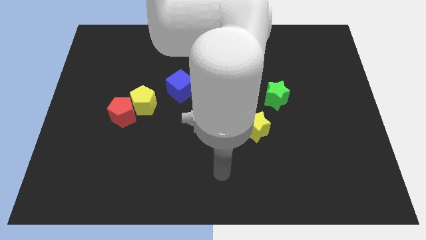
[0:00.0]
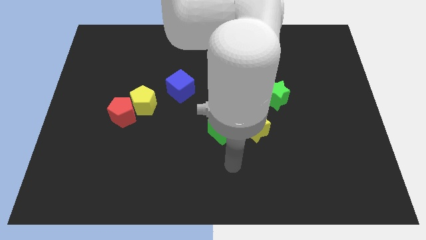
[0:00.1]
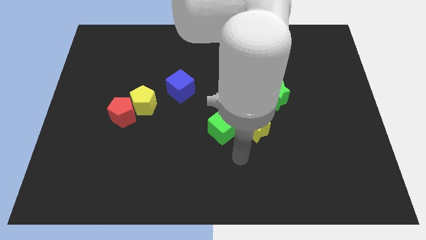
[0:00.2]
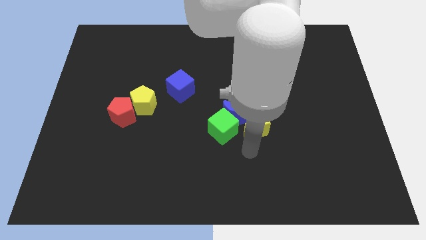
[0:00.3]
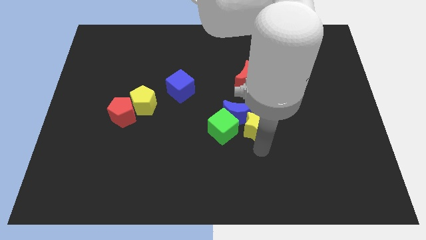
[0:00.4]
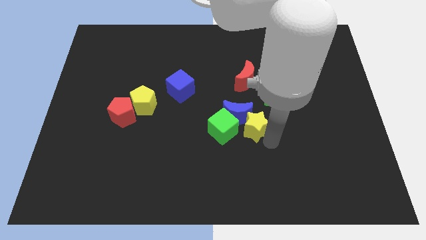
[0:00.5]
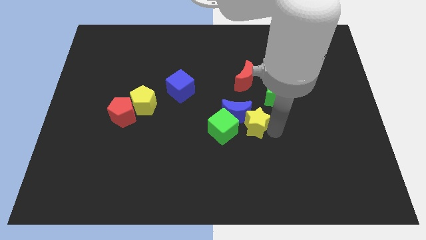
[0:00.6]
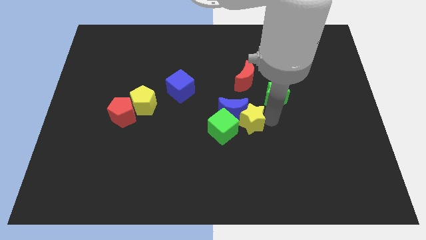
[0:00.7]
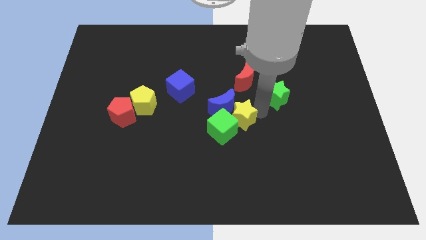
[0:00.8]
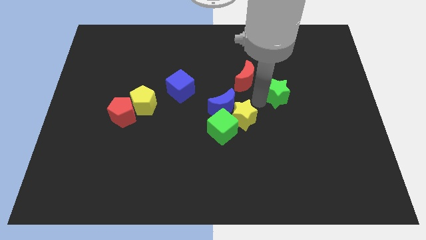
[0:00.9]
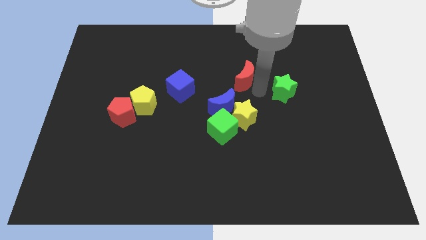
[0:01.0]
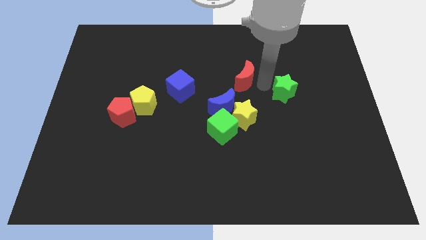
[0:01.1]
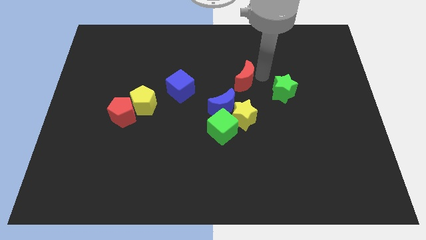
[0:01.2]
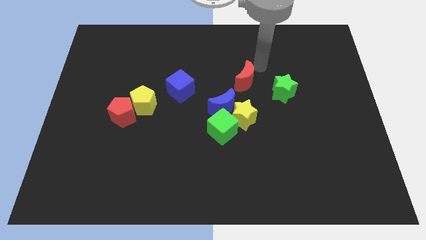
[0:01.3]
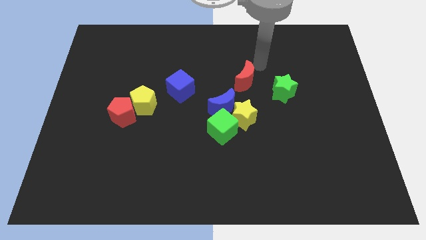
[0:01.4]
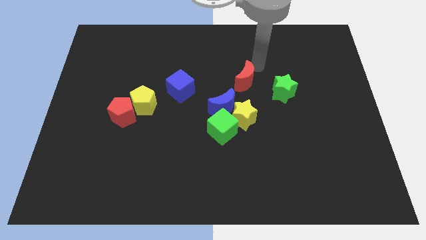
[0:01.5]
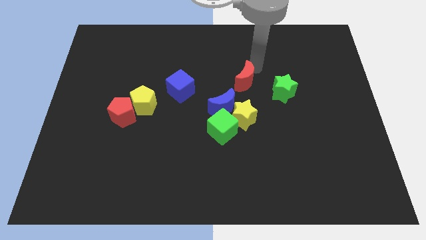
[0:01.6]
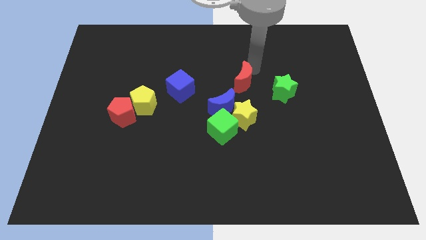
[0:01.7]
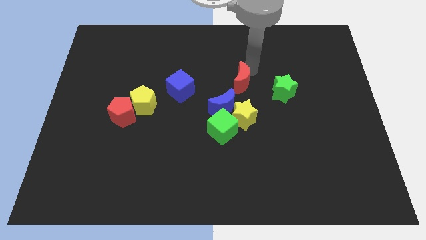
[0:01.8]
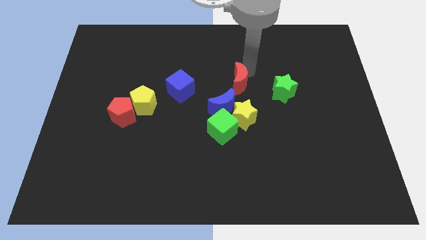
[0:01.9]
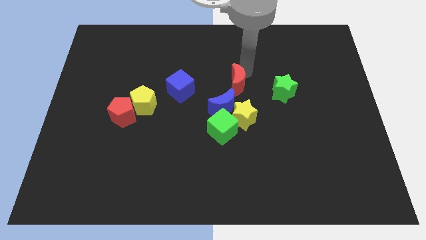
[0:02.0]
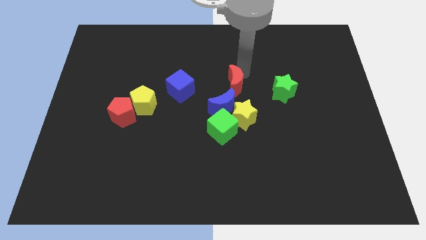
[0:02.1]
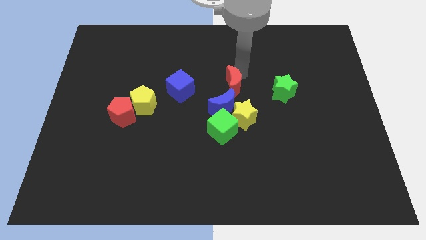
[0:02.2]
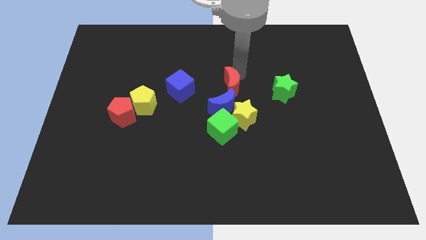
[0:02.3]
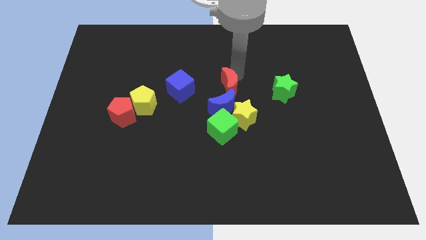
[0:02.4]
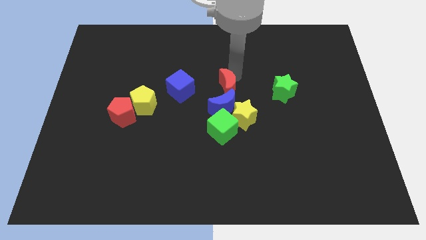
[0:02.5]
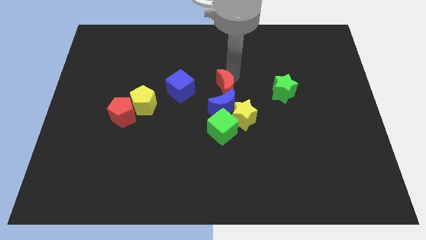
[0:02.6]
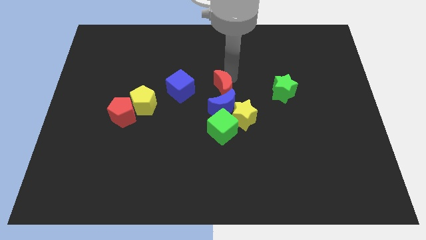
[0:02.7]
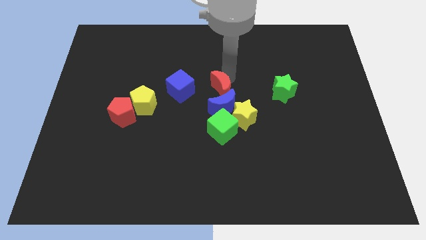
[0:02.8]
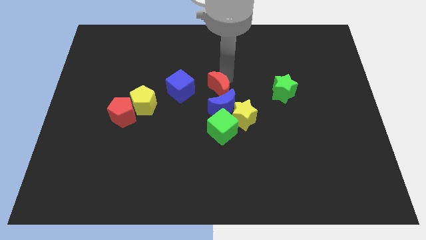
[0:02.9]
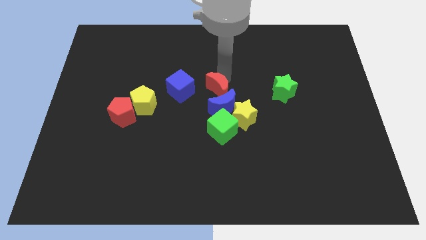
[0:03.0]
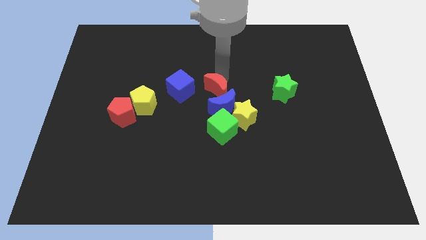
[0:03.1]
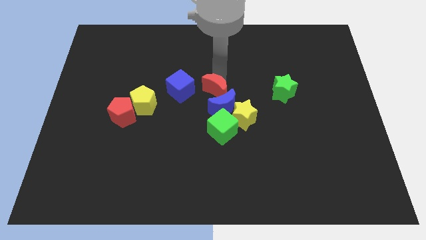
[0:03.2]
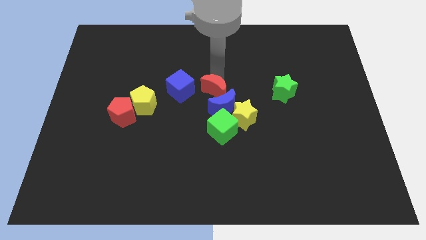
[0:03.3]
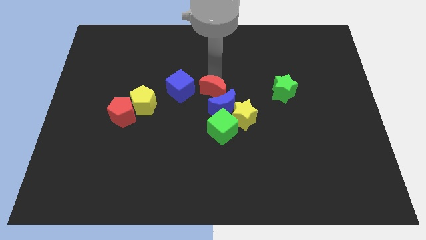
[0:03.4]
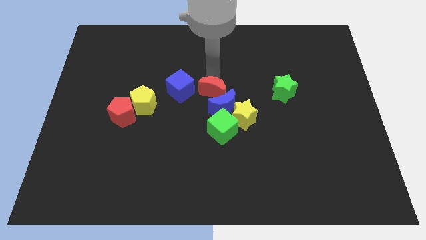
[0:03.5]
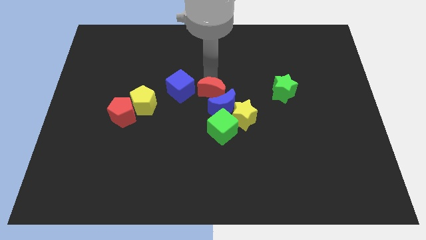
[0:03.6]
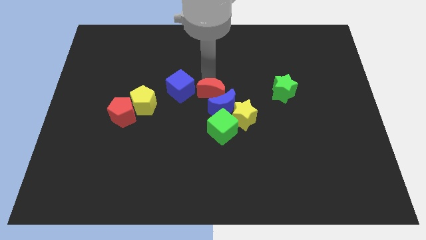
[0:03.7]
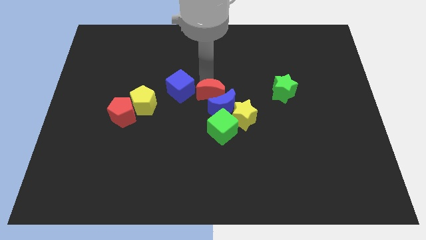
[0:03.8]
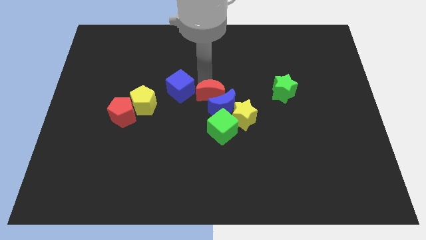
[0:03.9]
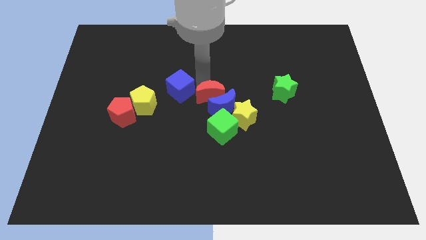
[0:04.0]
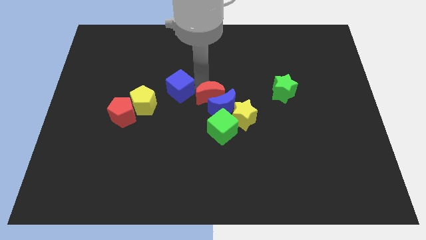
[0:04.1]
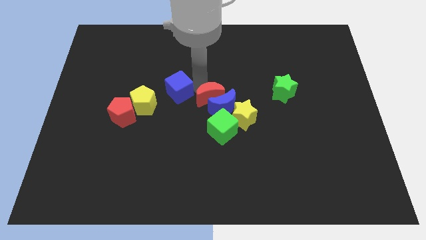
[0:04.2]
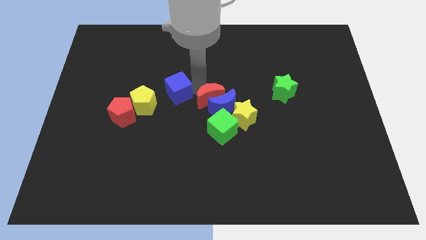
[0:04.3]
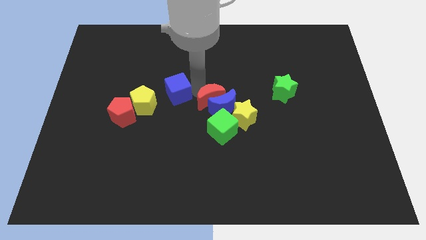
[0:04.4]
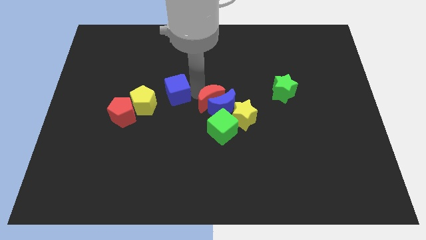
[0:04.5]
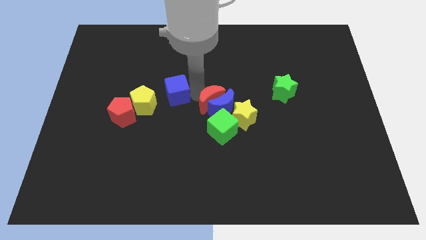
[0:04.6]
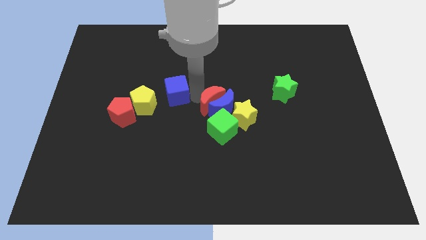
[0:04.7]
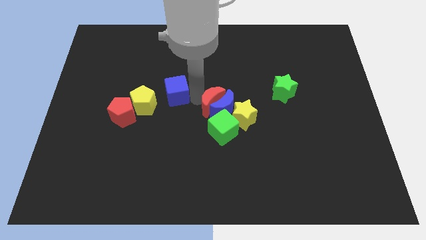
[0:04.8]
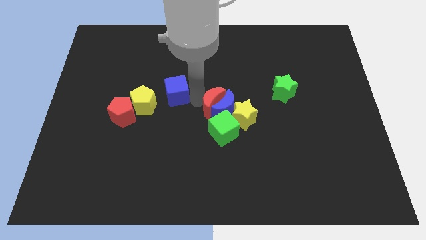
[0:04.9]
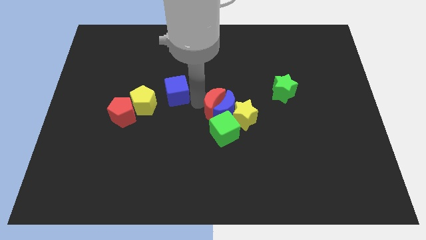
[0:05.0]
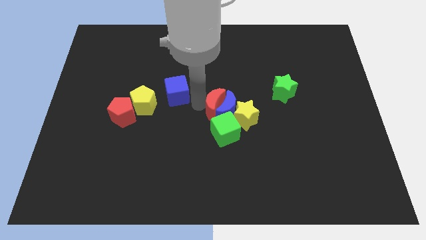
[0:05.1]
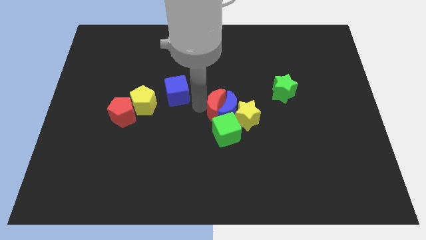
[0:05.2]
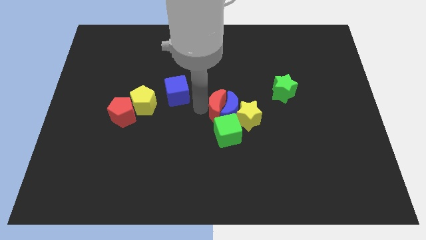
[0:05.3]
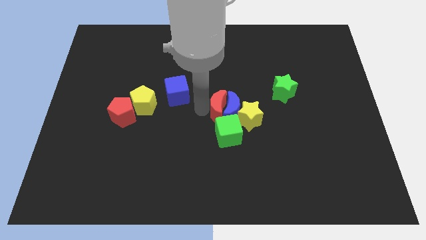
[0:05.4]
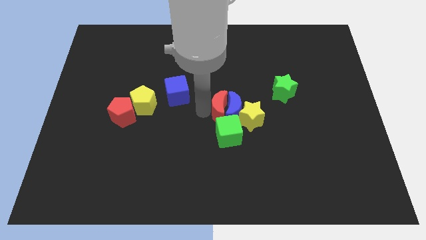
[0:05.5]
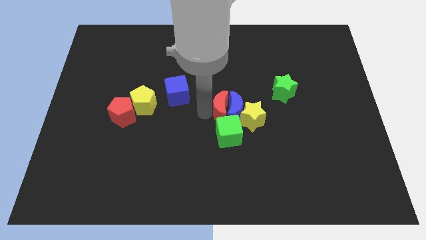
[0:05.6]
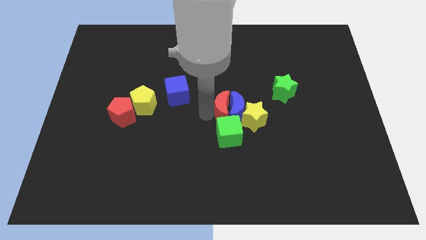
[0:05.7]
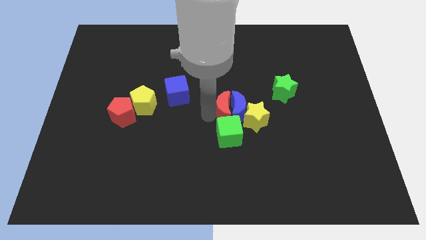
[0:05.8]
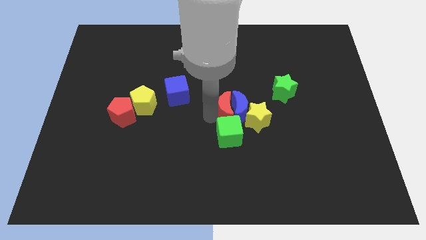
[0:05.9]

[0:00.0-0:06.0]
move the red moon towards the green cube

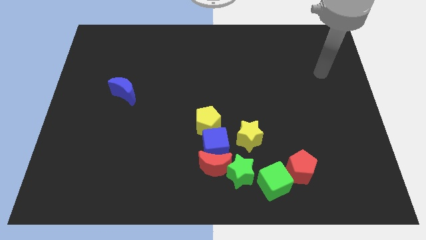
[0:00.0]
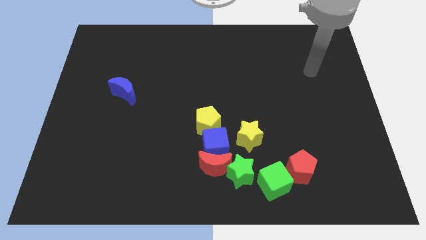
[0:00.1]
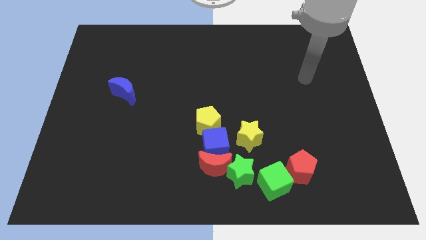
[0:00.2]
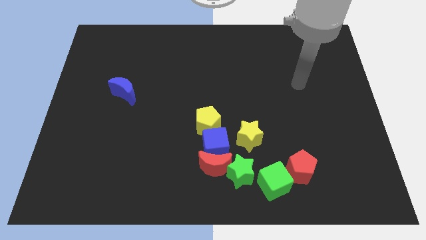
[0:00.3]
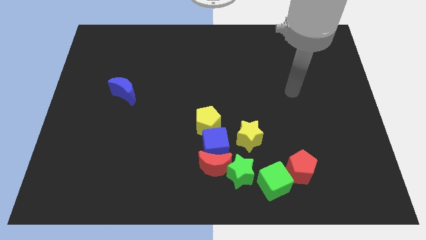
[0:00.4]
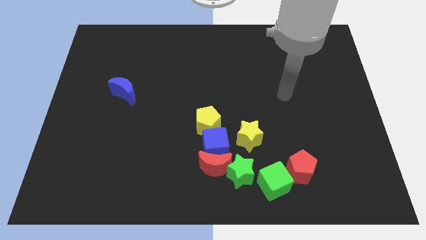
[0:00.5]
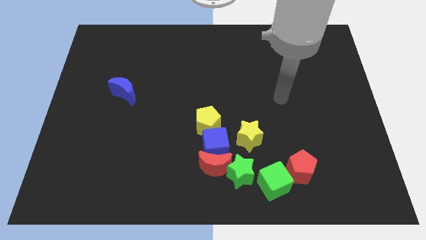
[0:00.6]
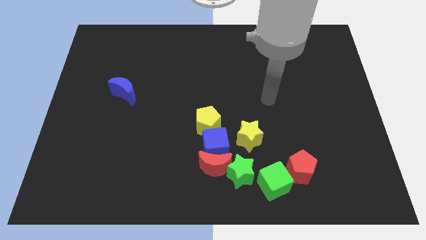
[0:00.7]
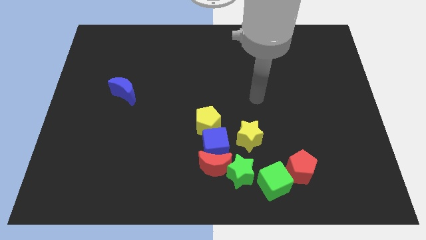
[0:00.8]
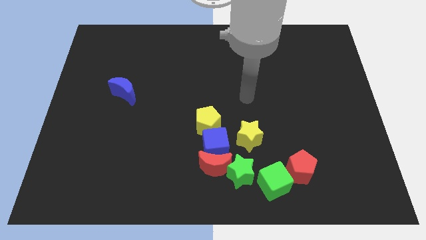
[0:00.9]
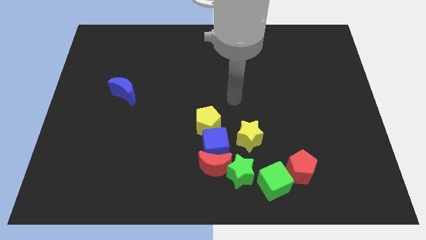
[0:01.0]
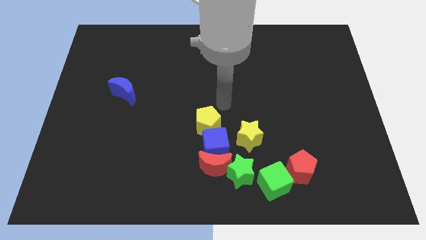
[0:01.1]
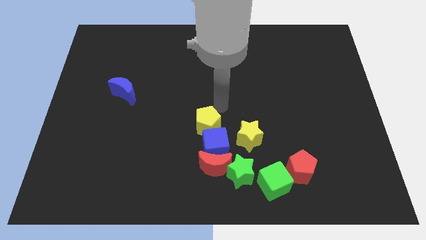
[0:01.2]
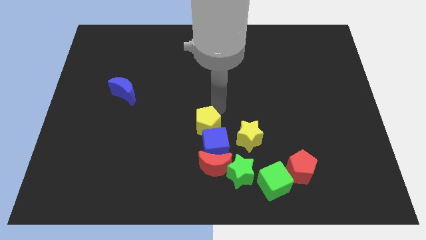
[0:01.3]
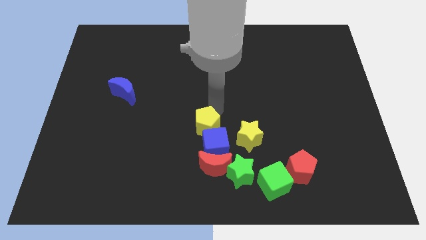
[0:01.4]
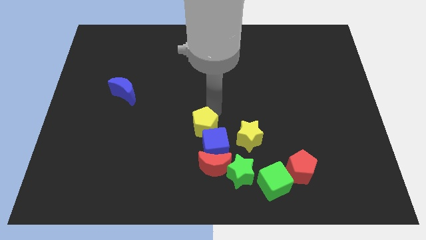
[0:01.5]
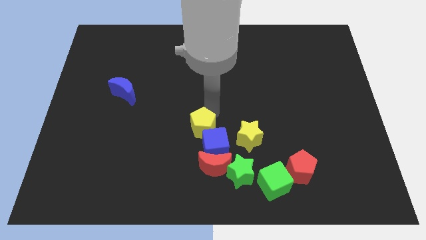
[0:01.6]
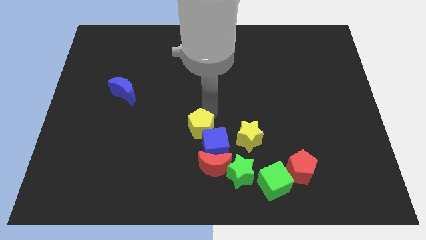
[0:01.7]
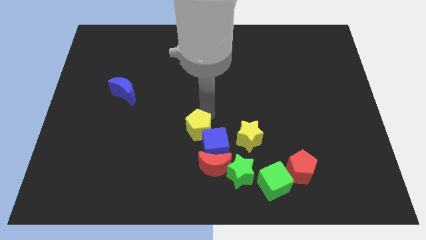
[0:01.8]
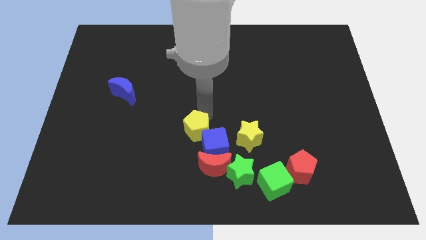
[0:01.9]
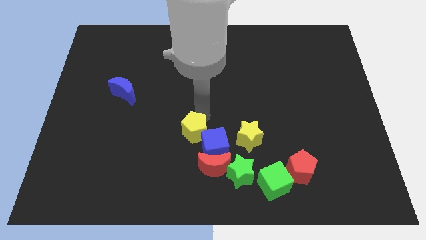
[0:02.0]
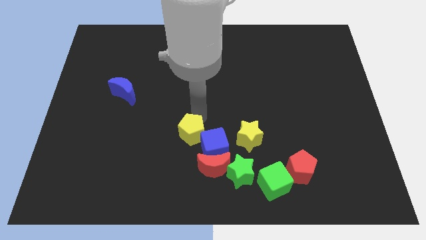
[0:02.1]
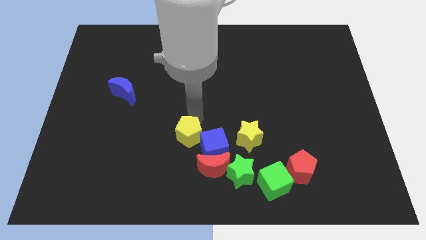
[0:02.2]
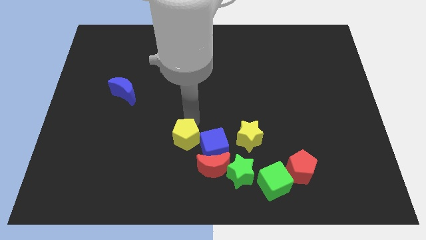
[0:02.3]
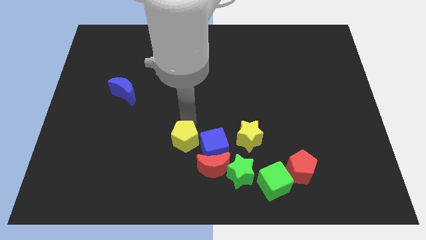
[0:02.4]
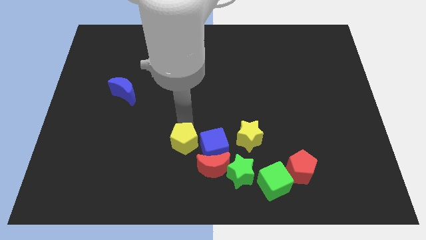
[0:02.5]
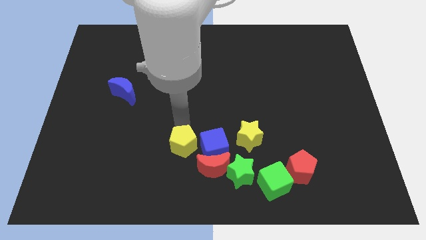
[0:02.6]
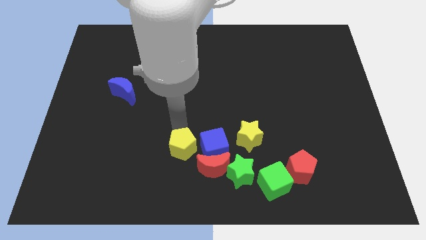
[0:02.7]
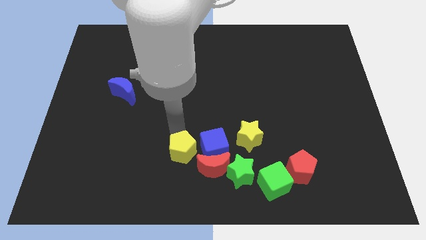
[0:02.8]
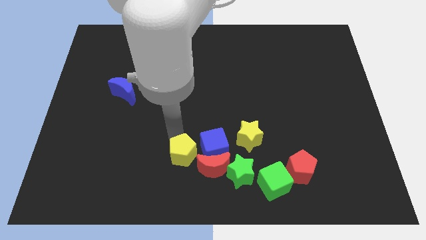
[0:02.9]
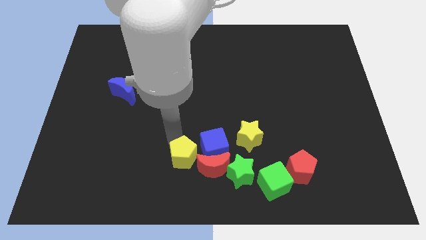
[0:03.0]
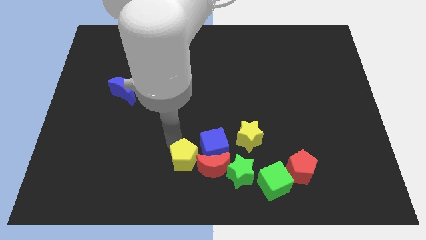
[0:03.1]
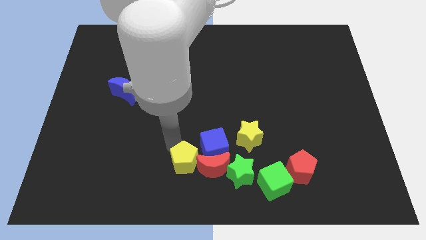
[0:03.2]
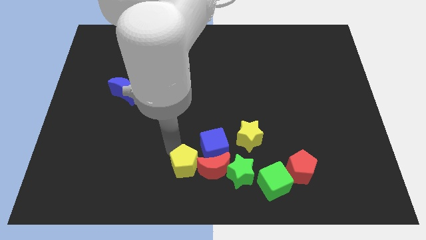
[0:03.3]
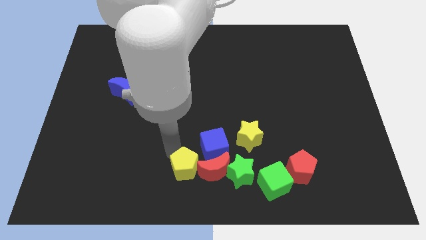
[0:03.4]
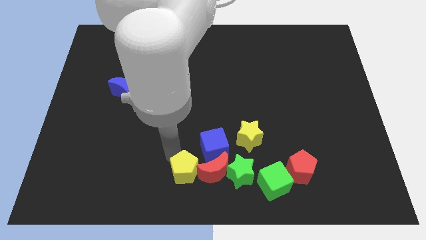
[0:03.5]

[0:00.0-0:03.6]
slide the yellow pentagon next to the red moon
